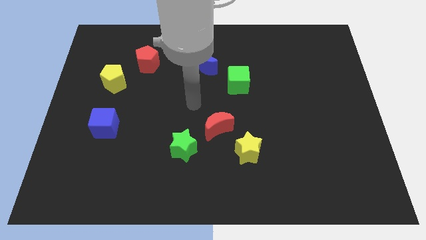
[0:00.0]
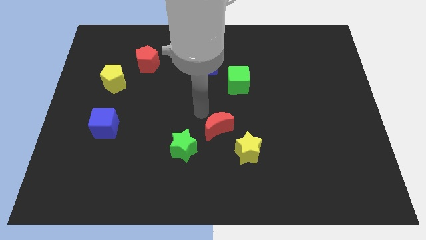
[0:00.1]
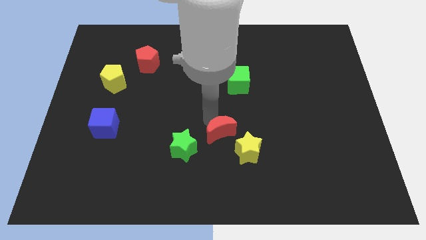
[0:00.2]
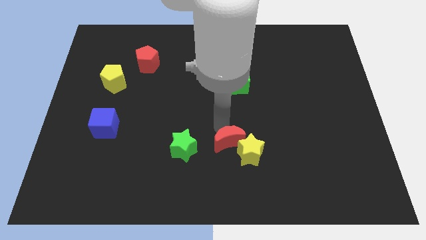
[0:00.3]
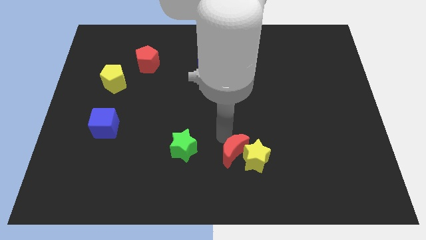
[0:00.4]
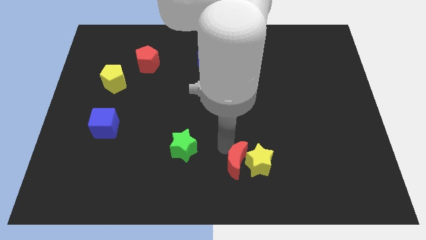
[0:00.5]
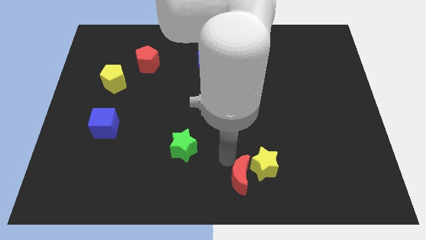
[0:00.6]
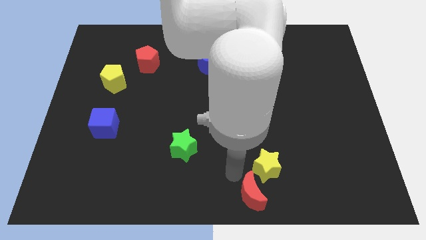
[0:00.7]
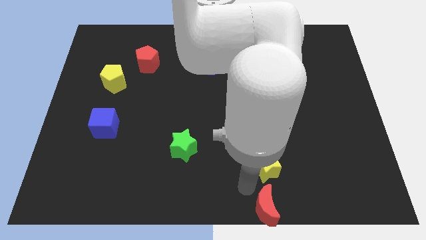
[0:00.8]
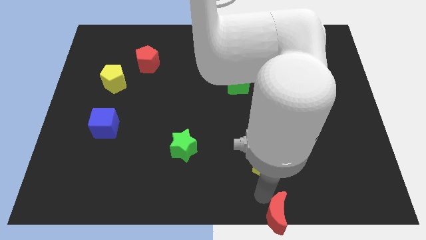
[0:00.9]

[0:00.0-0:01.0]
move the yellow star away from the red moon

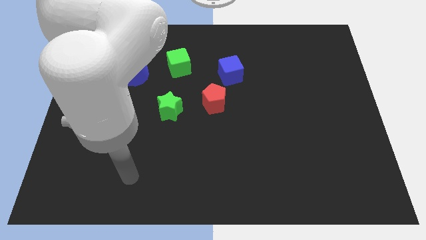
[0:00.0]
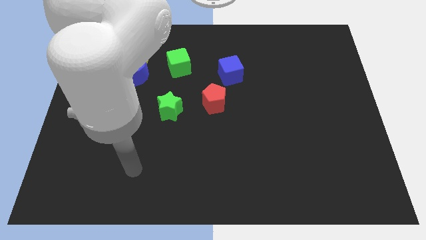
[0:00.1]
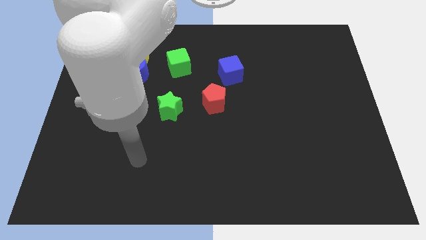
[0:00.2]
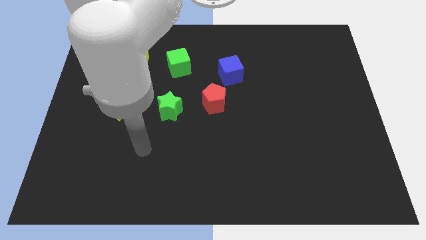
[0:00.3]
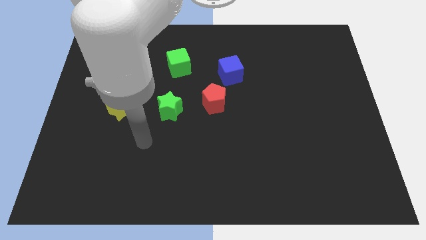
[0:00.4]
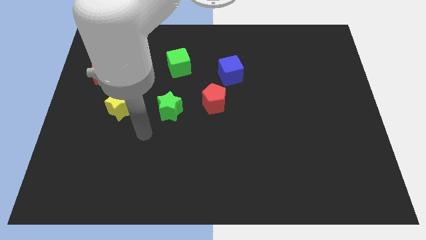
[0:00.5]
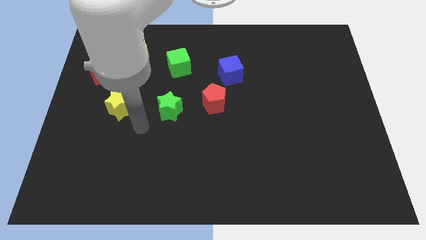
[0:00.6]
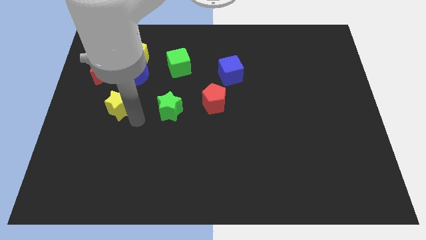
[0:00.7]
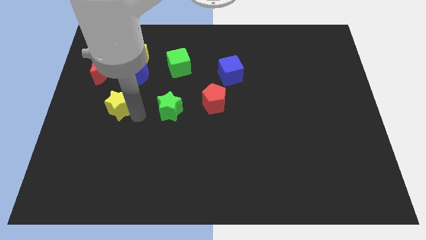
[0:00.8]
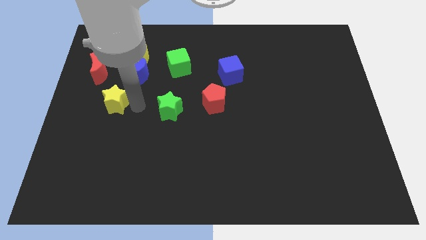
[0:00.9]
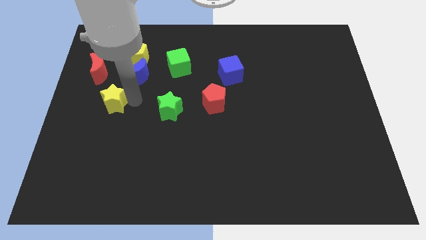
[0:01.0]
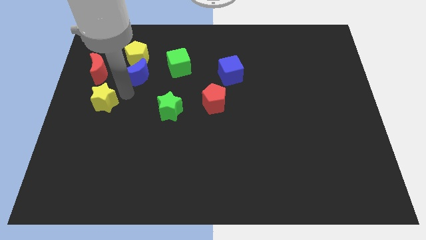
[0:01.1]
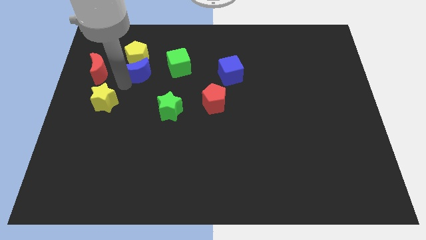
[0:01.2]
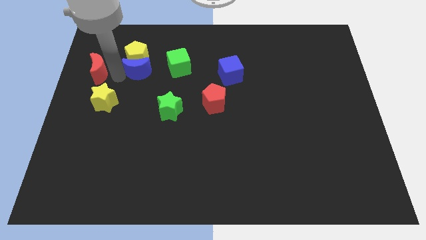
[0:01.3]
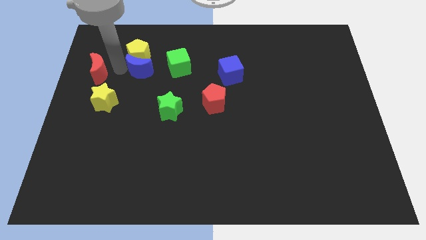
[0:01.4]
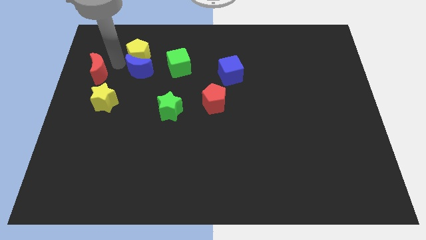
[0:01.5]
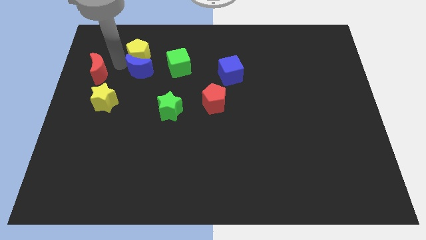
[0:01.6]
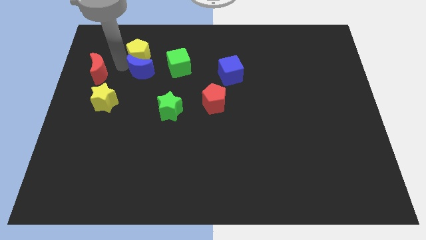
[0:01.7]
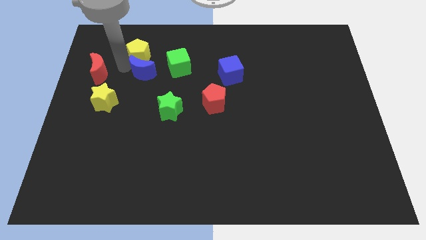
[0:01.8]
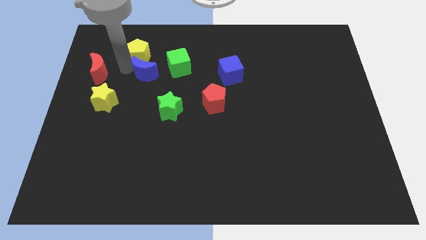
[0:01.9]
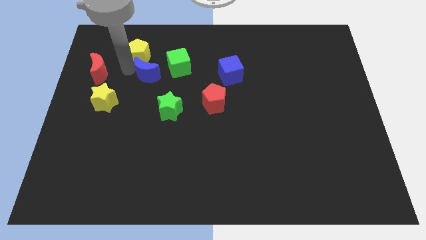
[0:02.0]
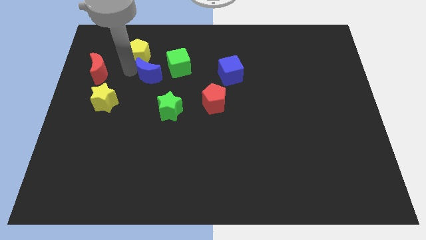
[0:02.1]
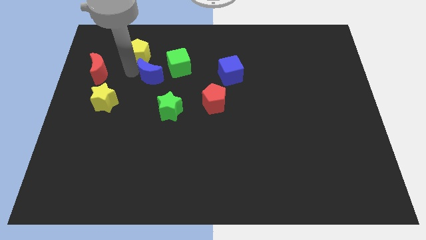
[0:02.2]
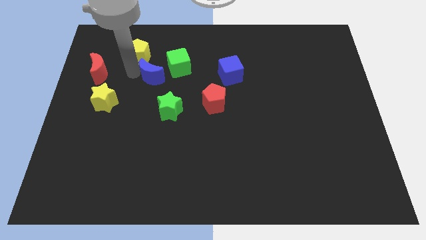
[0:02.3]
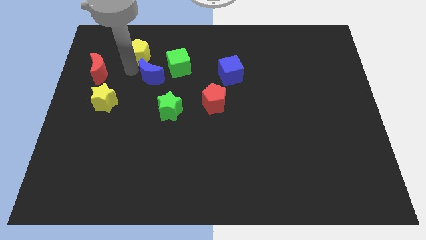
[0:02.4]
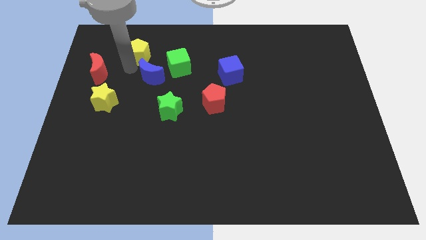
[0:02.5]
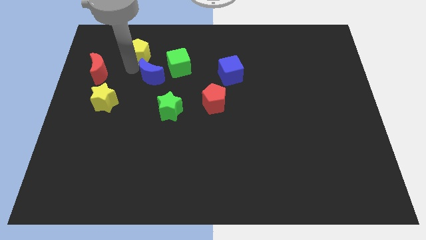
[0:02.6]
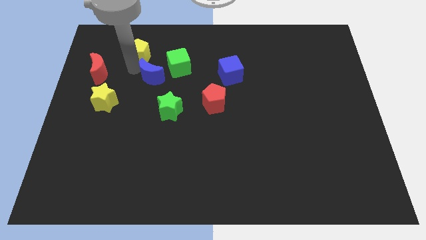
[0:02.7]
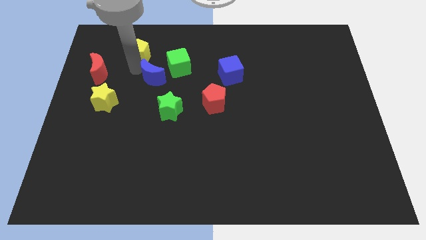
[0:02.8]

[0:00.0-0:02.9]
pull the blue moon apart from the yellow pentagon and red moon

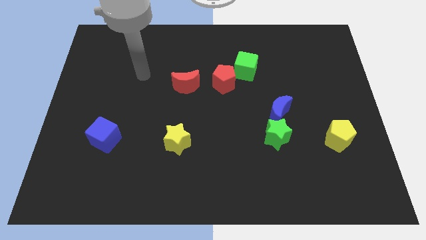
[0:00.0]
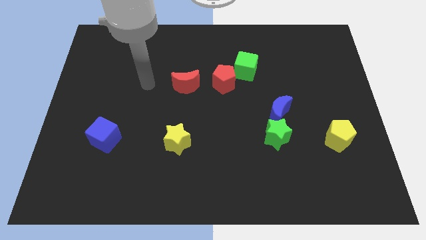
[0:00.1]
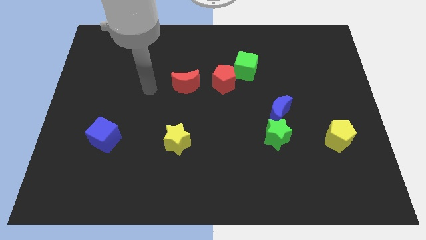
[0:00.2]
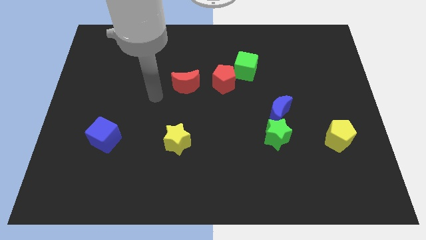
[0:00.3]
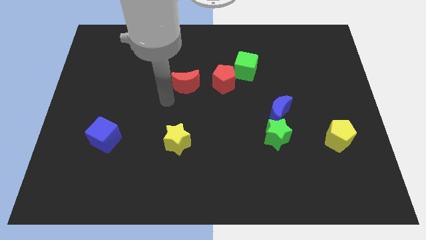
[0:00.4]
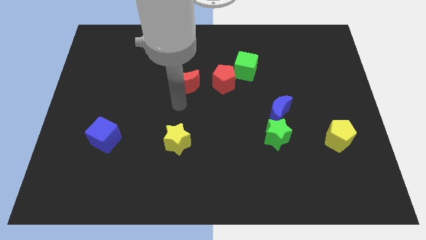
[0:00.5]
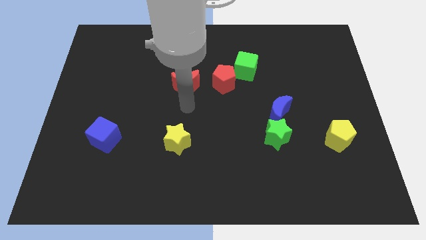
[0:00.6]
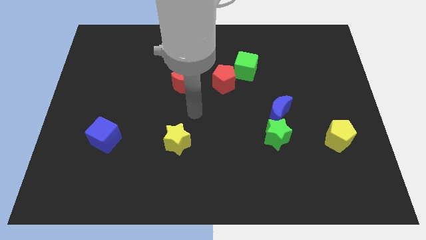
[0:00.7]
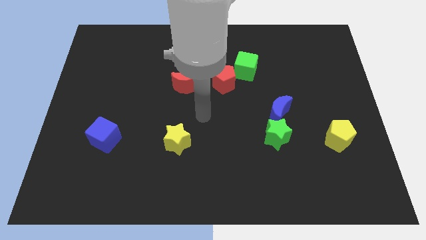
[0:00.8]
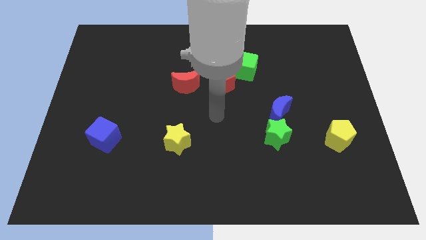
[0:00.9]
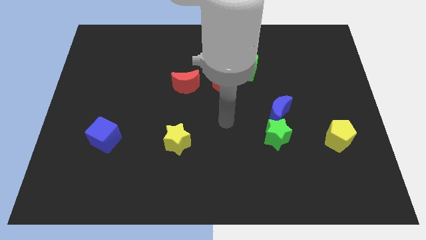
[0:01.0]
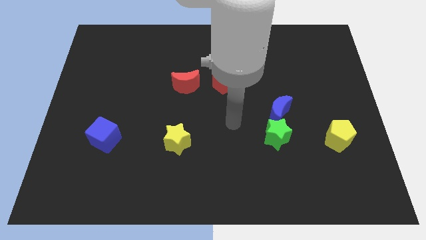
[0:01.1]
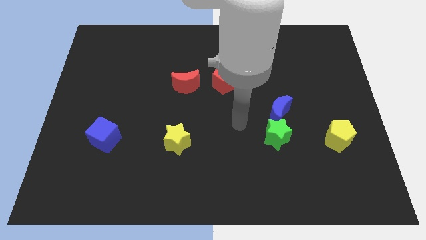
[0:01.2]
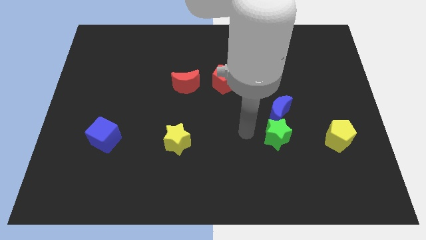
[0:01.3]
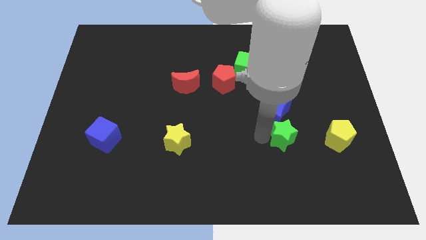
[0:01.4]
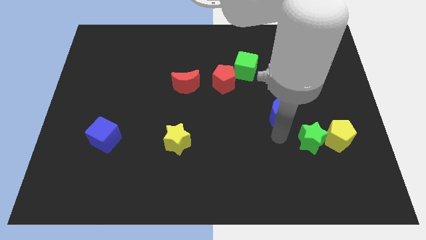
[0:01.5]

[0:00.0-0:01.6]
move the blue moon away from the green star

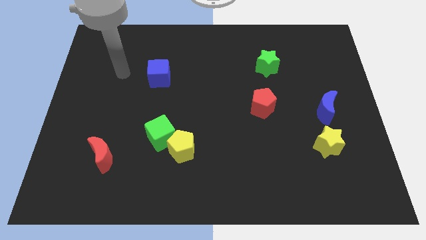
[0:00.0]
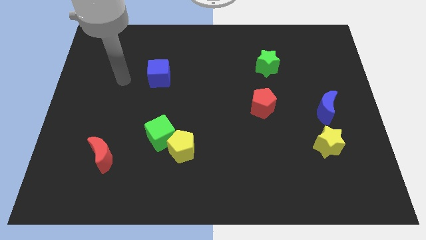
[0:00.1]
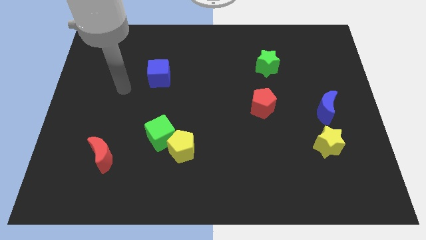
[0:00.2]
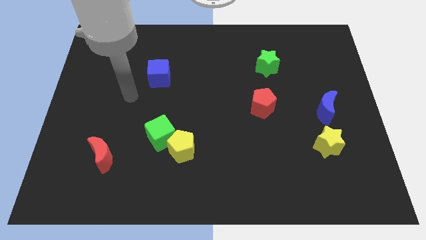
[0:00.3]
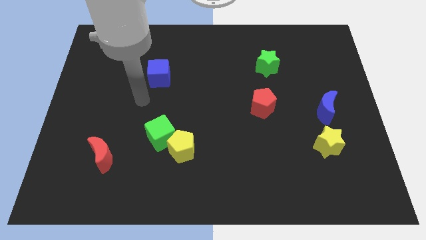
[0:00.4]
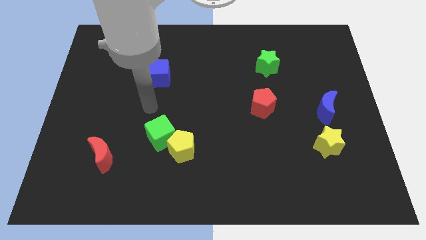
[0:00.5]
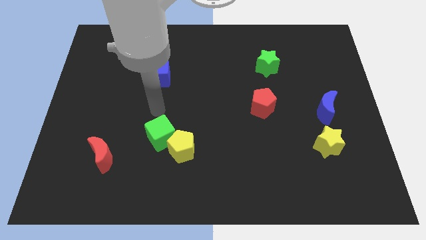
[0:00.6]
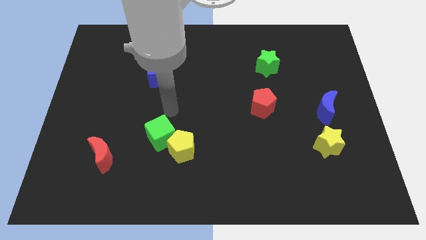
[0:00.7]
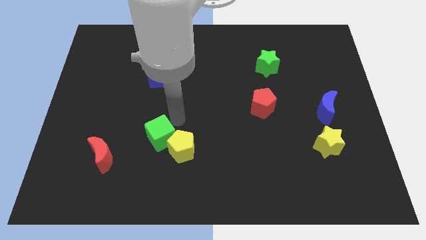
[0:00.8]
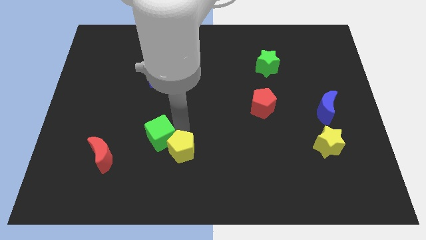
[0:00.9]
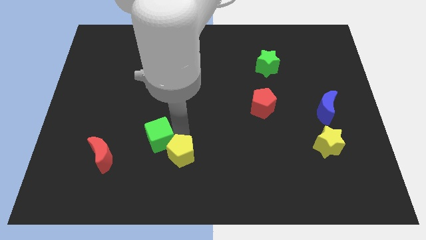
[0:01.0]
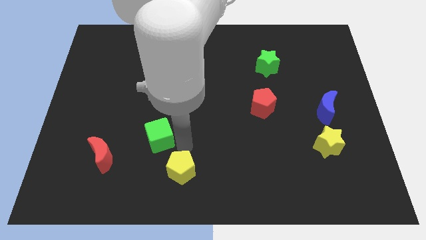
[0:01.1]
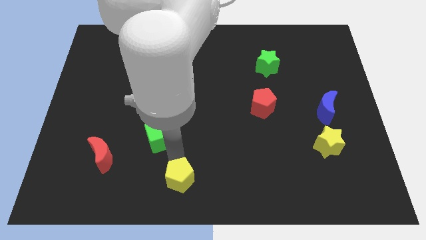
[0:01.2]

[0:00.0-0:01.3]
pull the green cube apart from the yellow pentagon

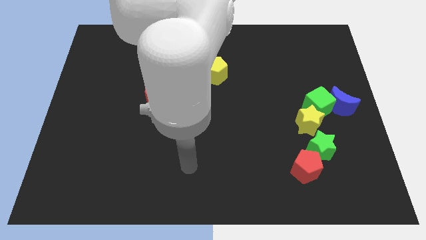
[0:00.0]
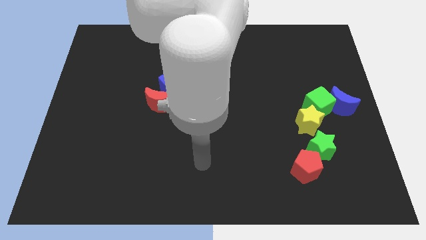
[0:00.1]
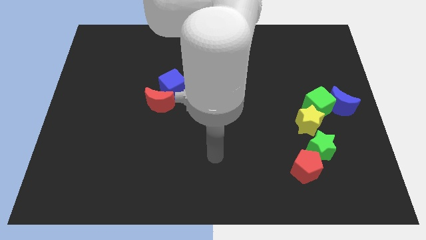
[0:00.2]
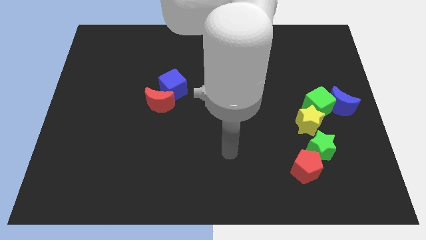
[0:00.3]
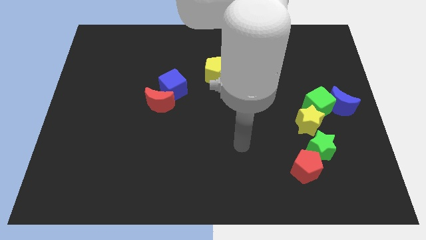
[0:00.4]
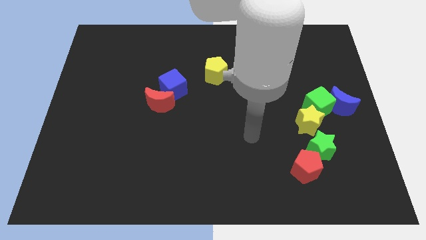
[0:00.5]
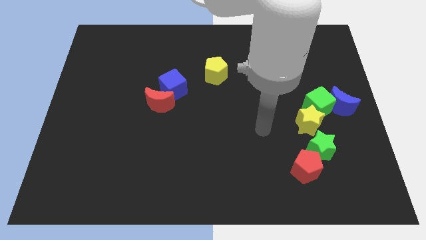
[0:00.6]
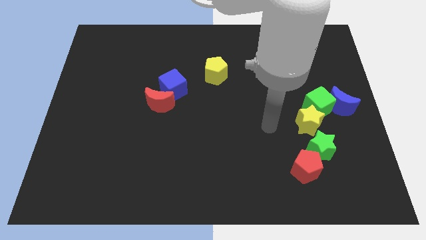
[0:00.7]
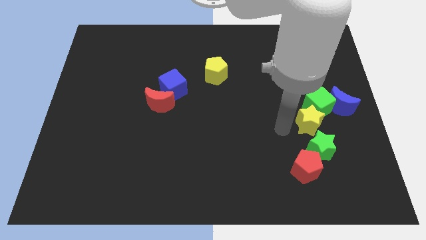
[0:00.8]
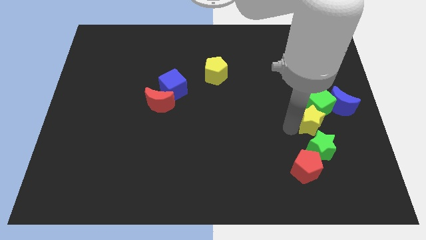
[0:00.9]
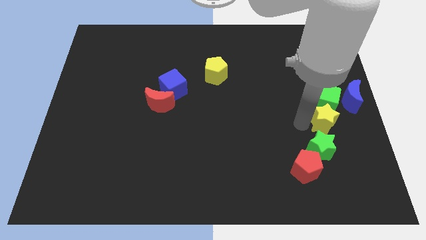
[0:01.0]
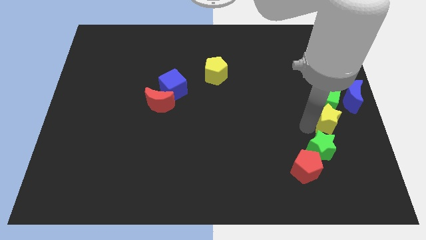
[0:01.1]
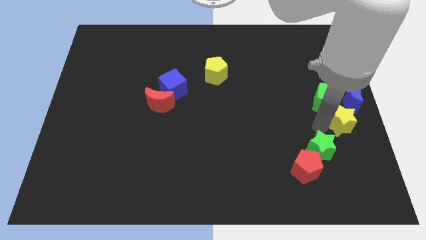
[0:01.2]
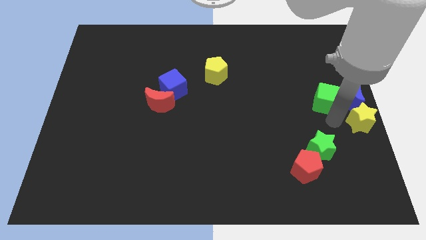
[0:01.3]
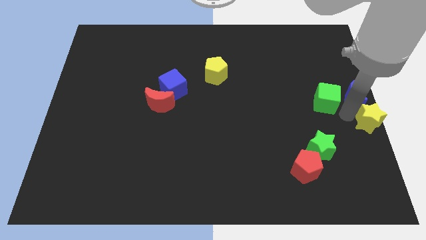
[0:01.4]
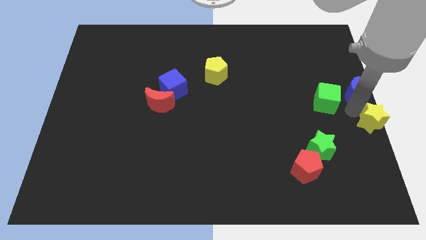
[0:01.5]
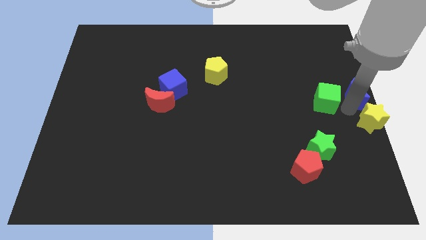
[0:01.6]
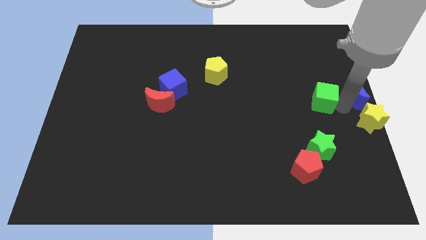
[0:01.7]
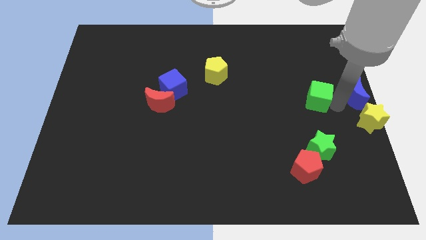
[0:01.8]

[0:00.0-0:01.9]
move the green cube away from the blue moon and yellow star

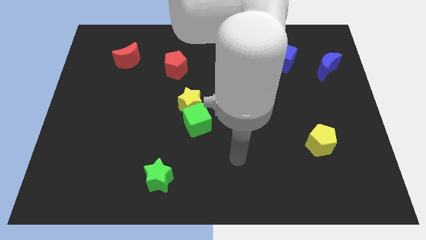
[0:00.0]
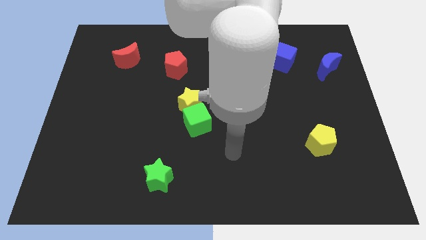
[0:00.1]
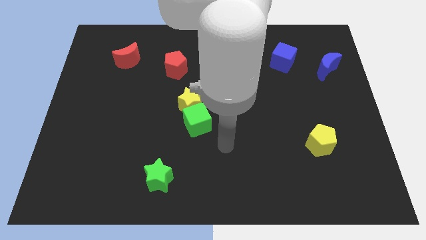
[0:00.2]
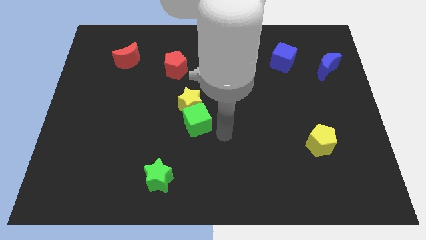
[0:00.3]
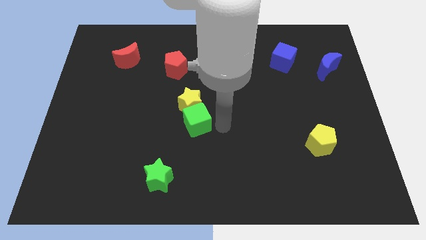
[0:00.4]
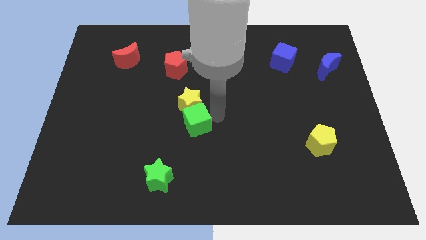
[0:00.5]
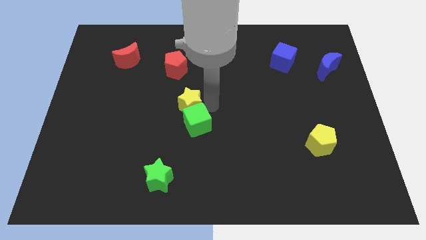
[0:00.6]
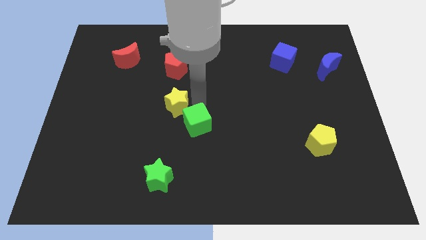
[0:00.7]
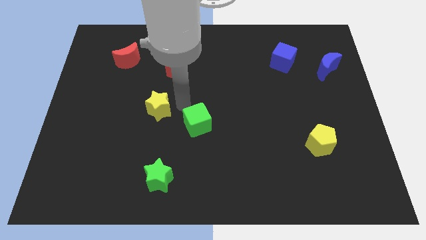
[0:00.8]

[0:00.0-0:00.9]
pull the green cube apart from the yellow star
